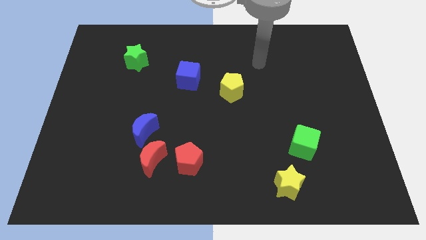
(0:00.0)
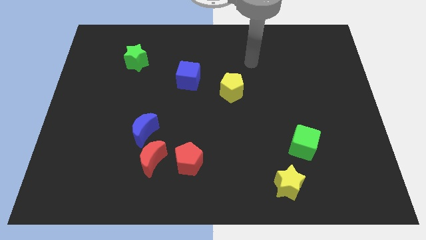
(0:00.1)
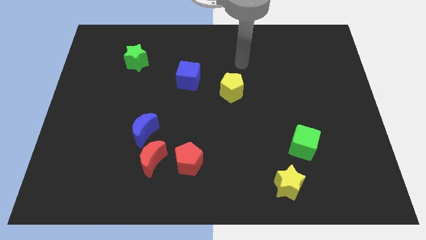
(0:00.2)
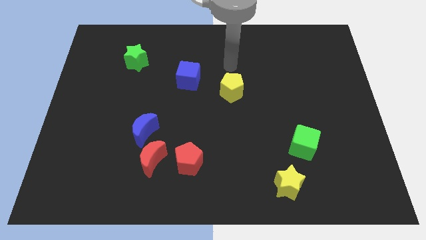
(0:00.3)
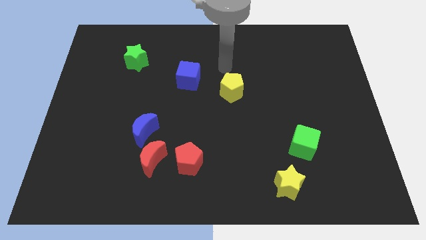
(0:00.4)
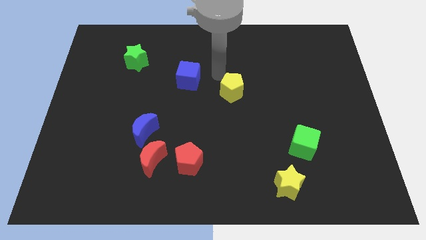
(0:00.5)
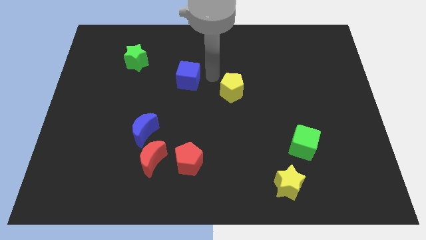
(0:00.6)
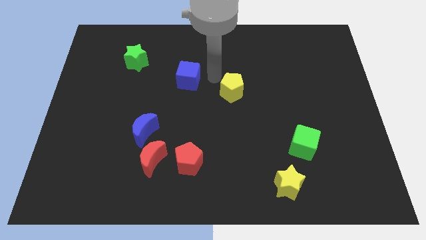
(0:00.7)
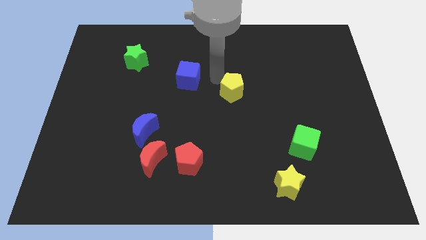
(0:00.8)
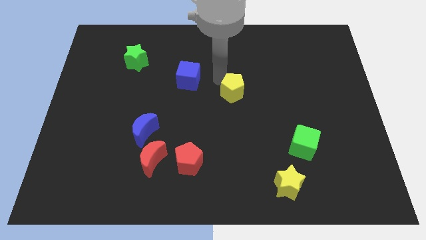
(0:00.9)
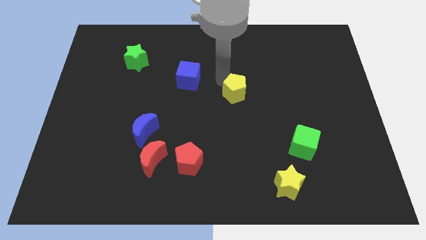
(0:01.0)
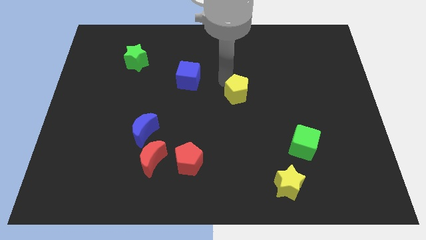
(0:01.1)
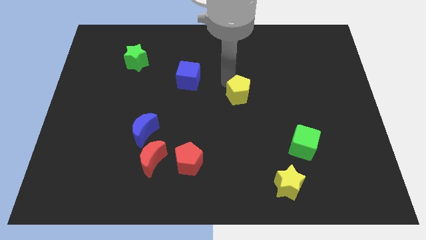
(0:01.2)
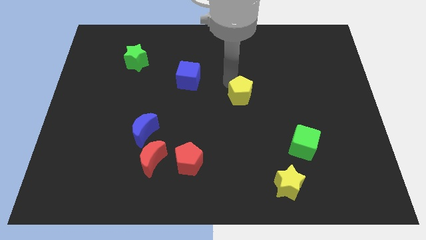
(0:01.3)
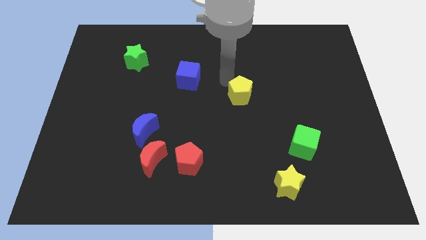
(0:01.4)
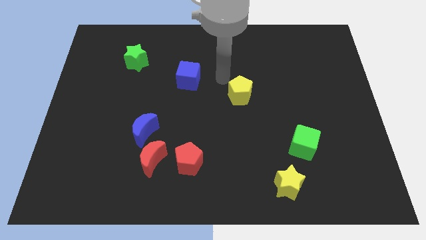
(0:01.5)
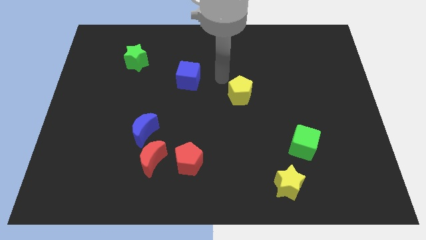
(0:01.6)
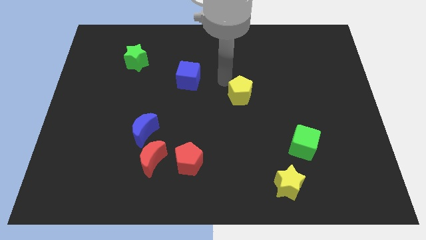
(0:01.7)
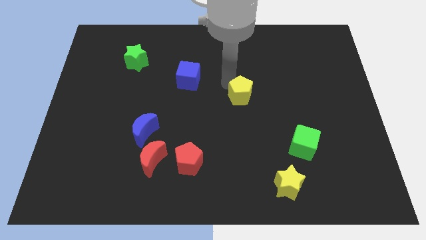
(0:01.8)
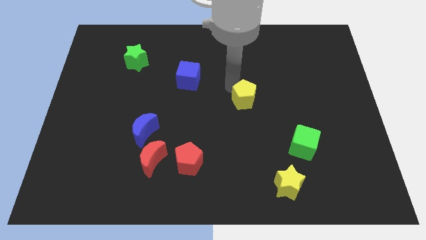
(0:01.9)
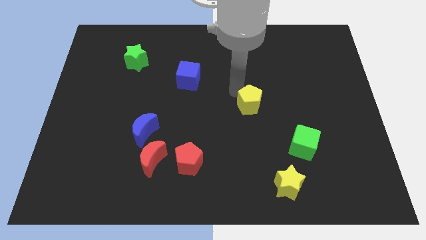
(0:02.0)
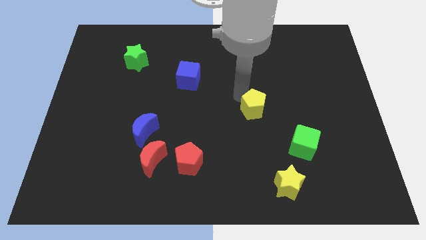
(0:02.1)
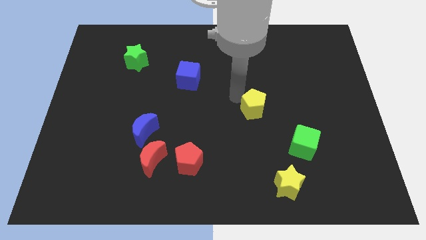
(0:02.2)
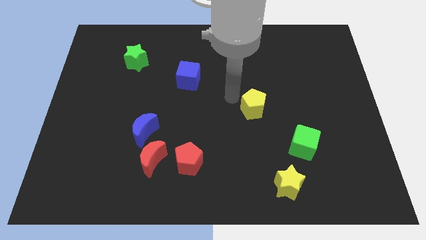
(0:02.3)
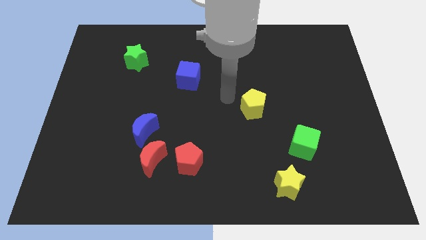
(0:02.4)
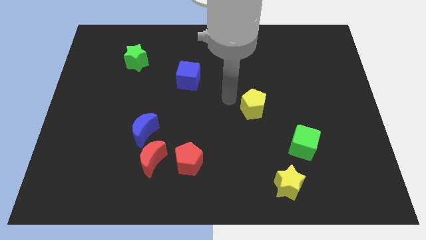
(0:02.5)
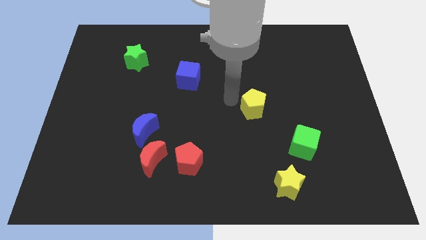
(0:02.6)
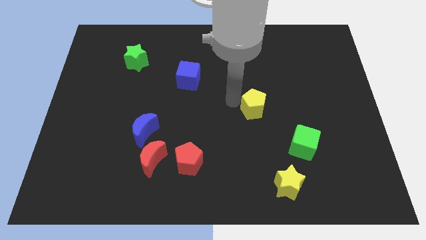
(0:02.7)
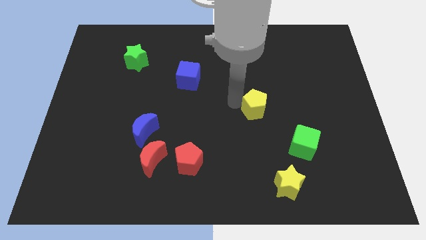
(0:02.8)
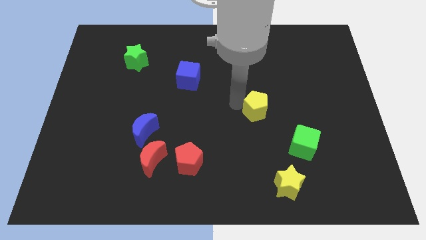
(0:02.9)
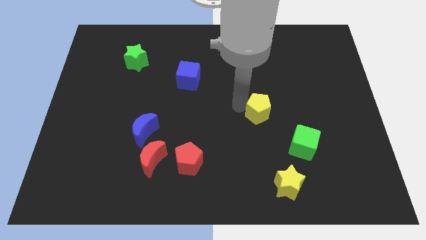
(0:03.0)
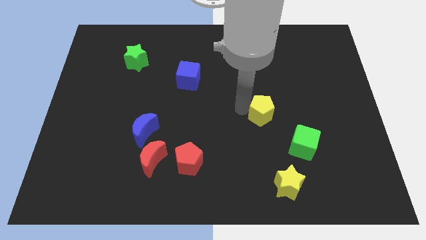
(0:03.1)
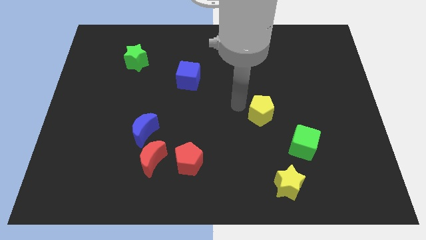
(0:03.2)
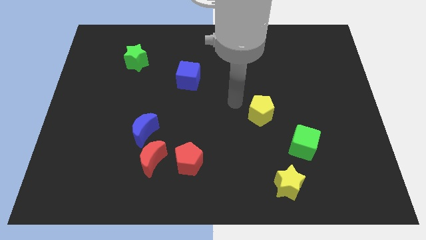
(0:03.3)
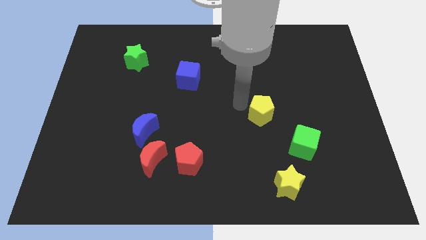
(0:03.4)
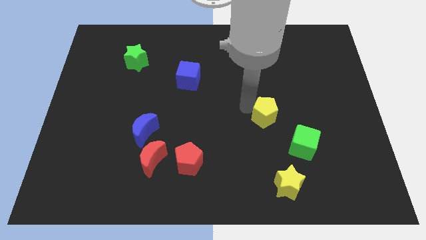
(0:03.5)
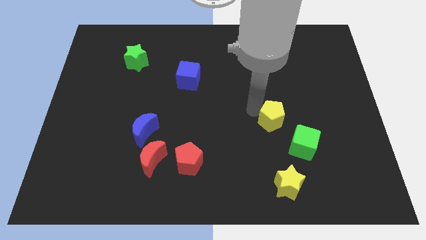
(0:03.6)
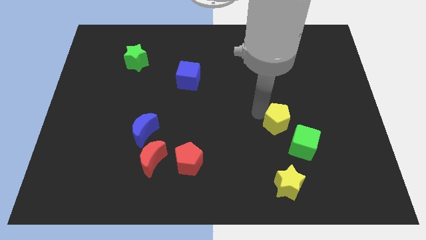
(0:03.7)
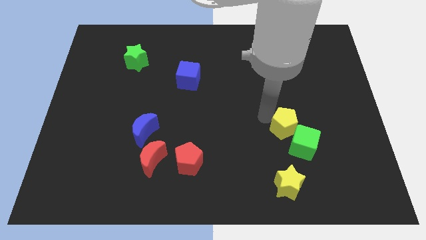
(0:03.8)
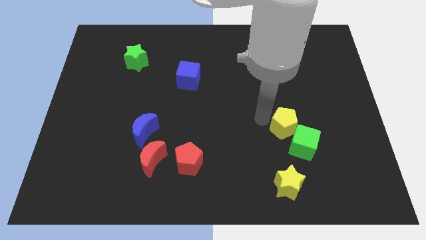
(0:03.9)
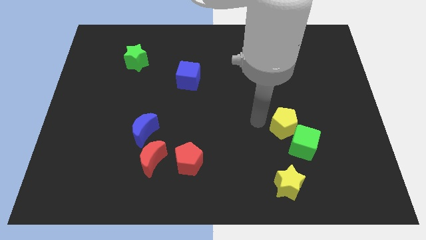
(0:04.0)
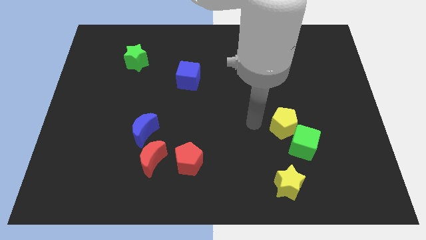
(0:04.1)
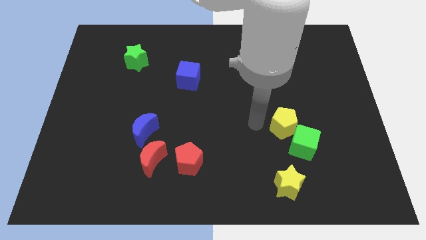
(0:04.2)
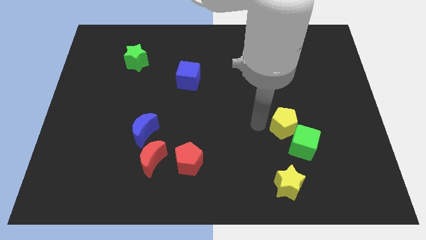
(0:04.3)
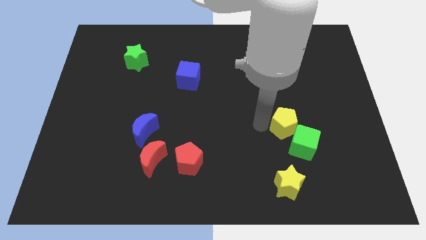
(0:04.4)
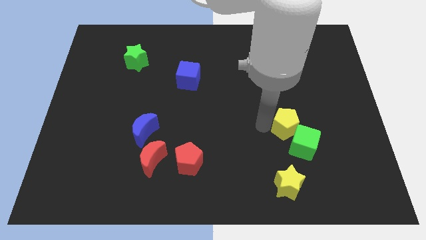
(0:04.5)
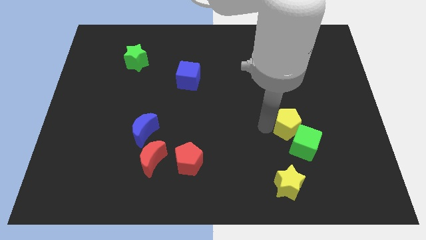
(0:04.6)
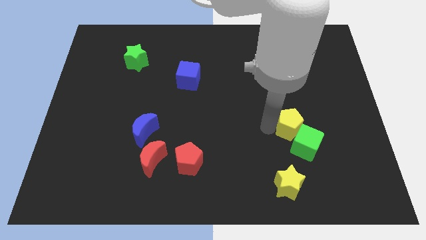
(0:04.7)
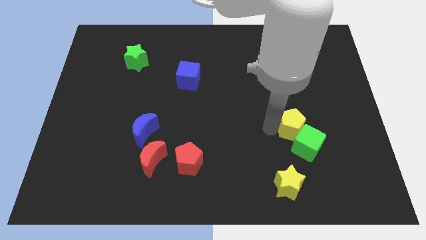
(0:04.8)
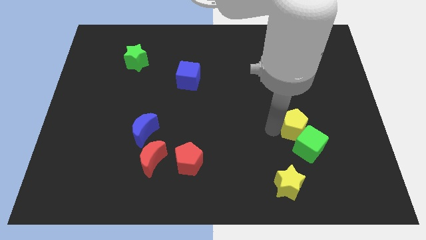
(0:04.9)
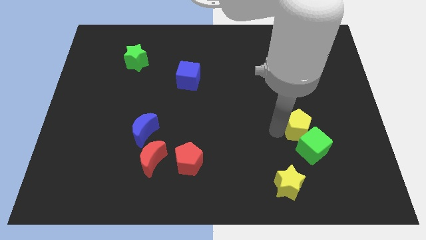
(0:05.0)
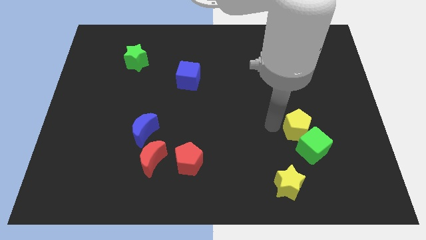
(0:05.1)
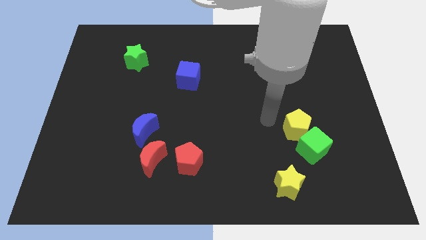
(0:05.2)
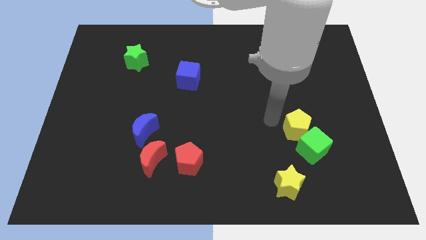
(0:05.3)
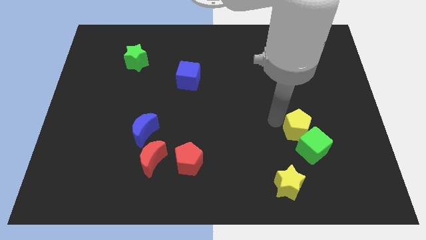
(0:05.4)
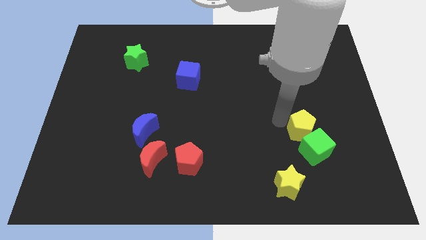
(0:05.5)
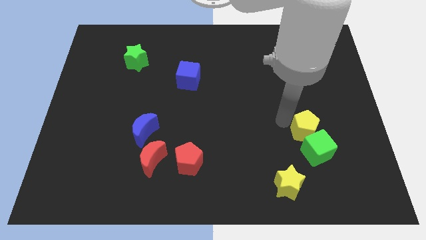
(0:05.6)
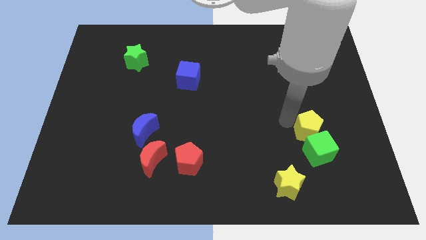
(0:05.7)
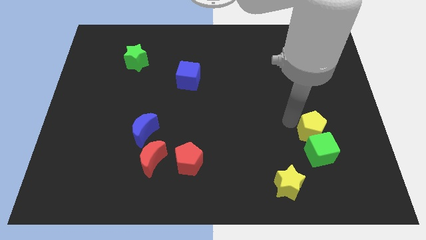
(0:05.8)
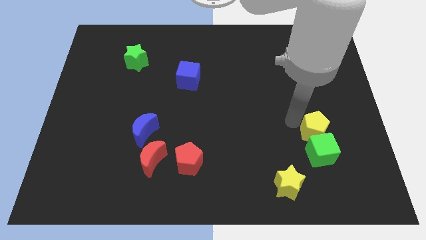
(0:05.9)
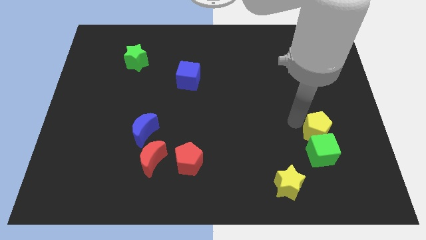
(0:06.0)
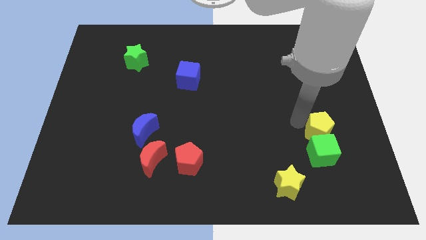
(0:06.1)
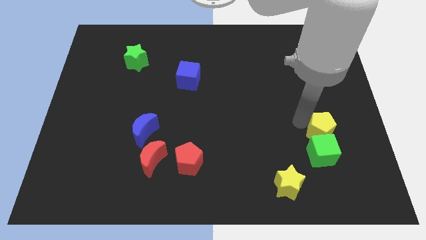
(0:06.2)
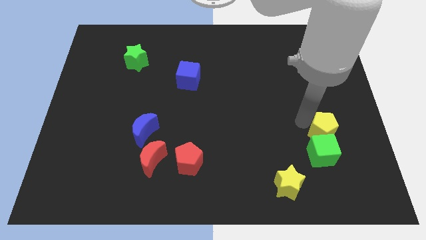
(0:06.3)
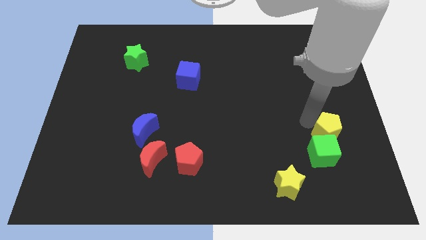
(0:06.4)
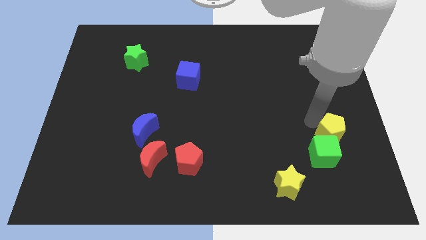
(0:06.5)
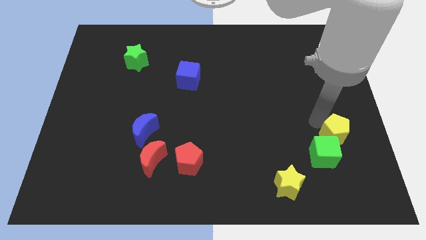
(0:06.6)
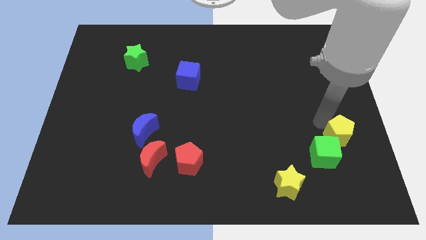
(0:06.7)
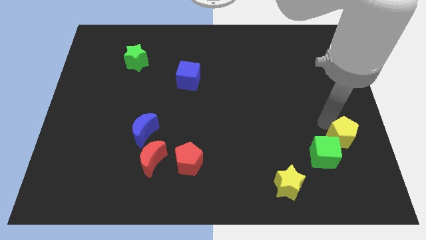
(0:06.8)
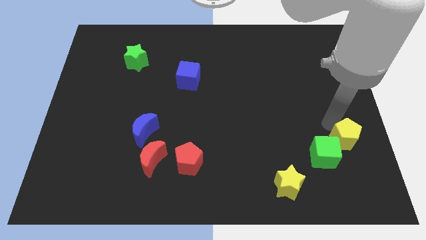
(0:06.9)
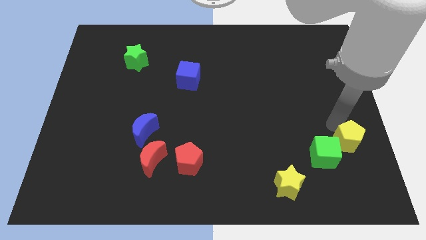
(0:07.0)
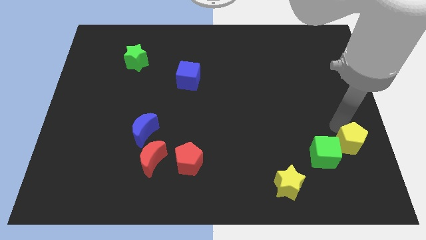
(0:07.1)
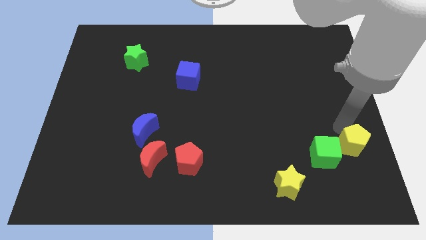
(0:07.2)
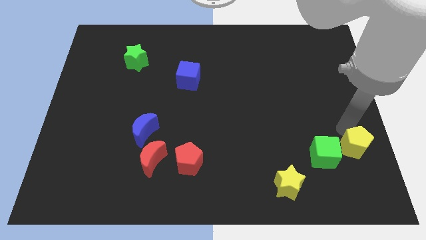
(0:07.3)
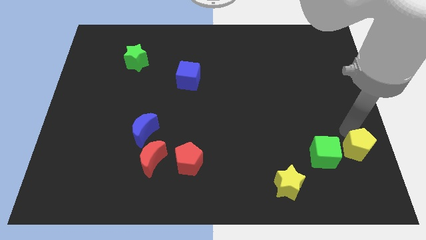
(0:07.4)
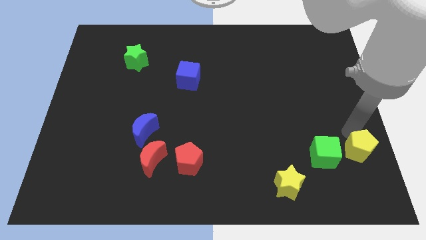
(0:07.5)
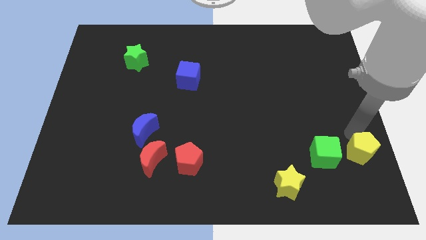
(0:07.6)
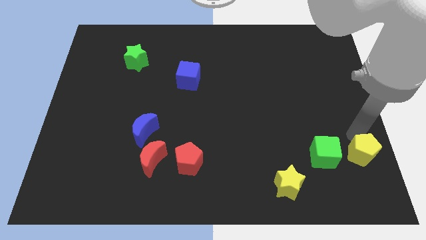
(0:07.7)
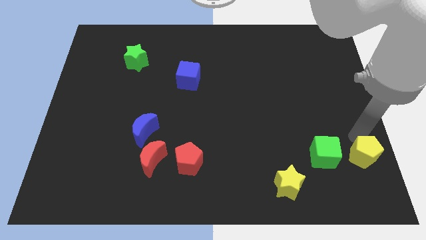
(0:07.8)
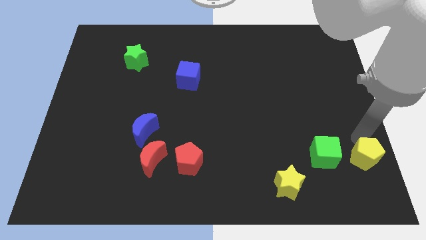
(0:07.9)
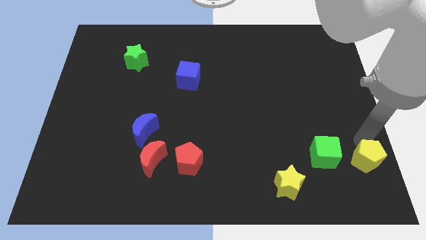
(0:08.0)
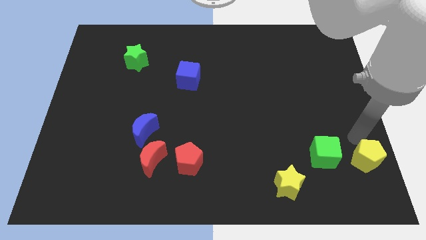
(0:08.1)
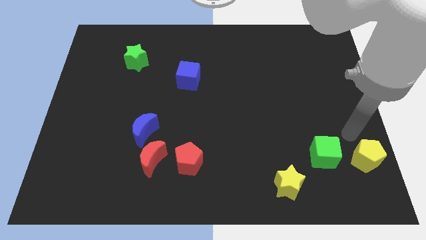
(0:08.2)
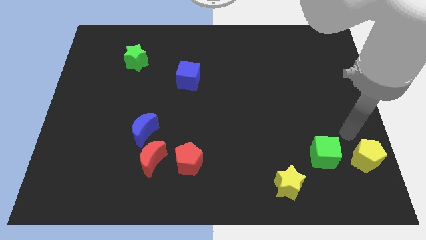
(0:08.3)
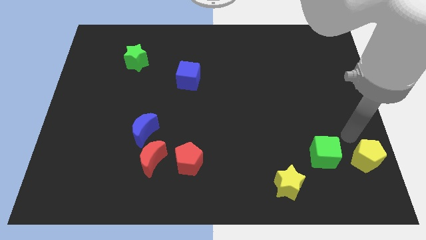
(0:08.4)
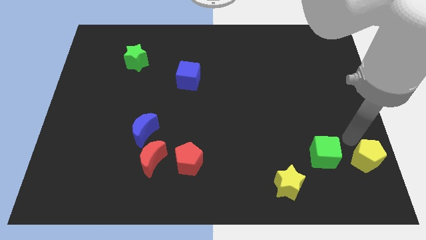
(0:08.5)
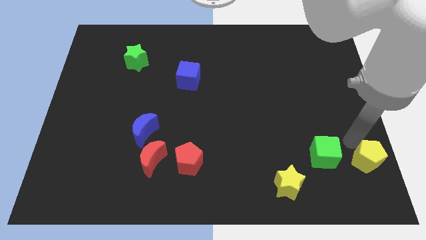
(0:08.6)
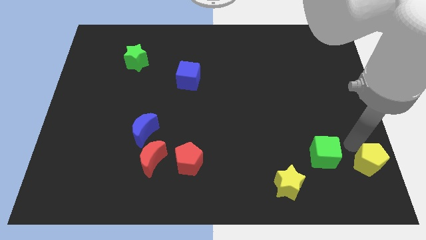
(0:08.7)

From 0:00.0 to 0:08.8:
move the yellow pentagon to the lower right corner
